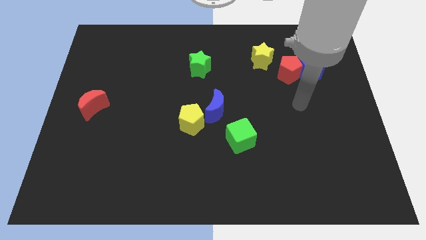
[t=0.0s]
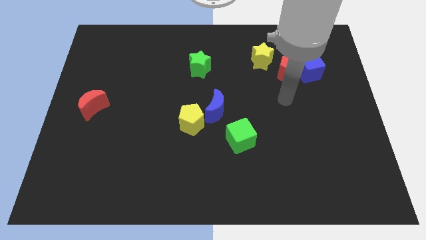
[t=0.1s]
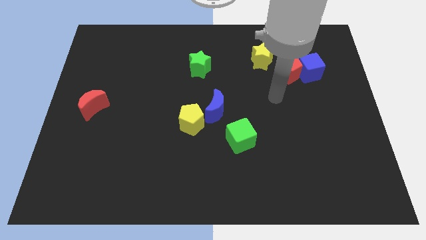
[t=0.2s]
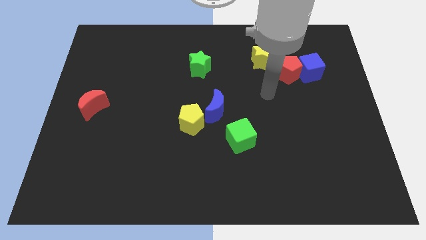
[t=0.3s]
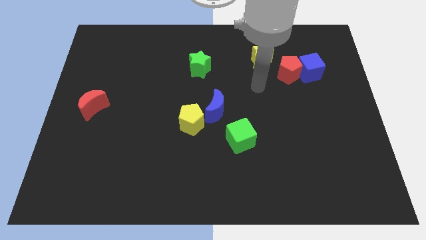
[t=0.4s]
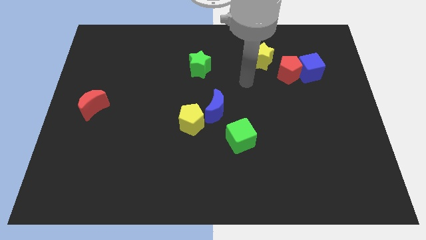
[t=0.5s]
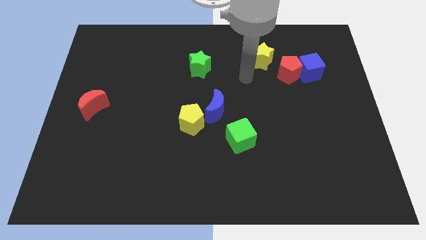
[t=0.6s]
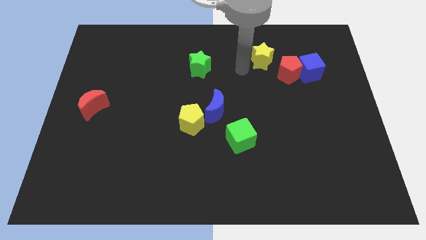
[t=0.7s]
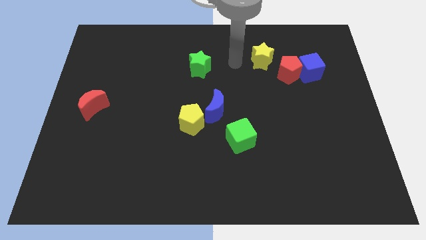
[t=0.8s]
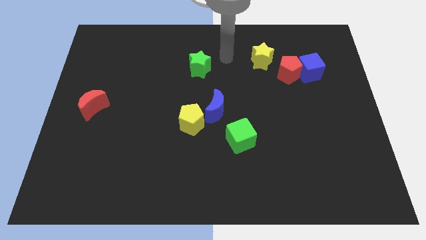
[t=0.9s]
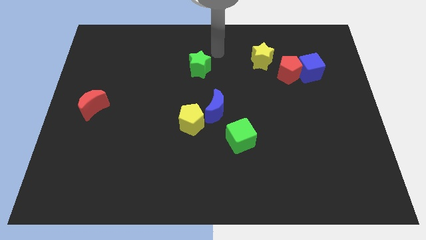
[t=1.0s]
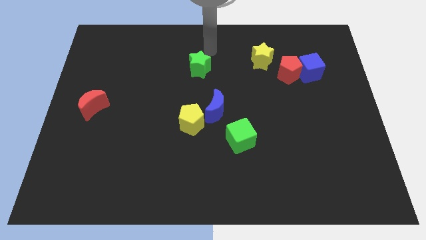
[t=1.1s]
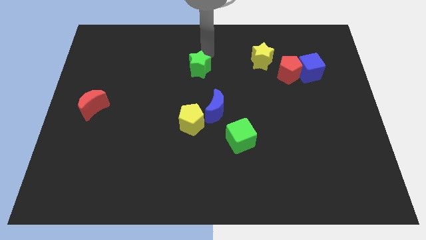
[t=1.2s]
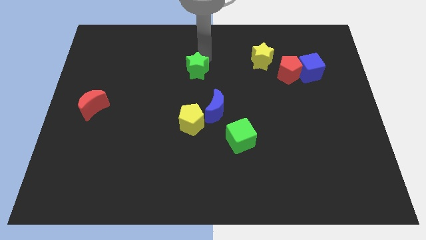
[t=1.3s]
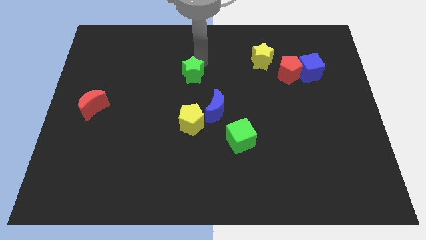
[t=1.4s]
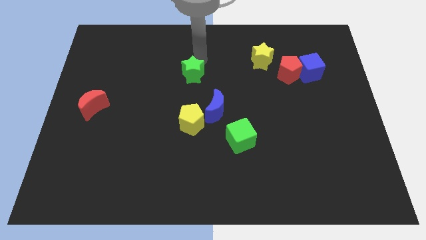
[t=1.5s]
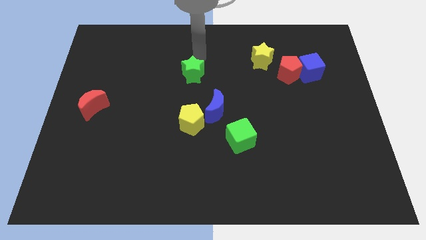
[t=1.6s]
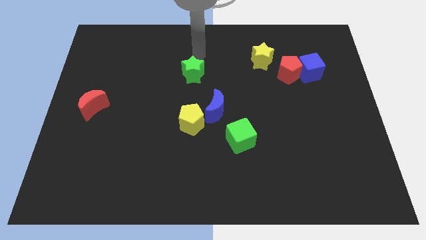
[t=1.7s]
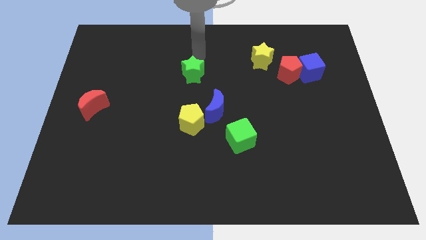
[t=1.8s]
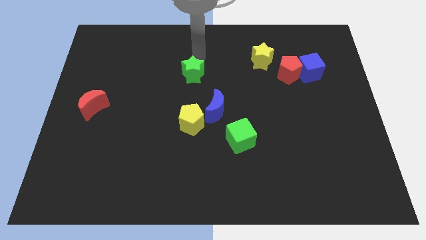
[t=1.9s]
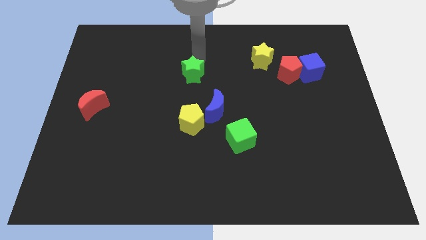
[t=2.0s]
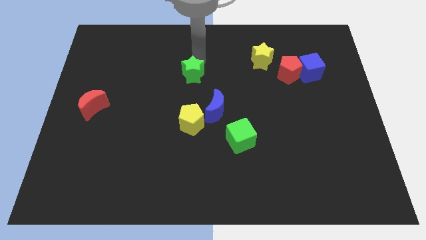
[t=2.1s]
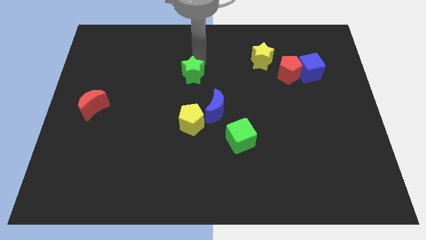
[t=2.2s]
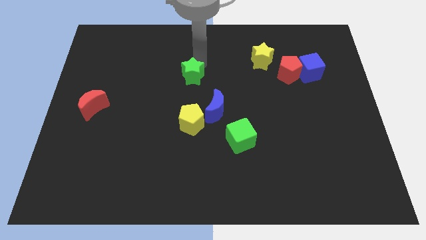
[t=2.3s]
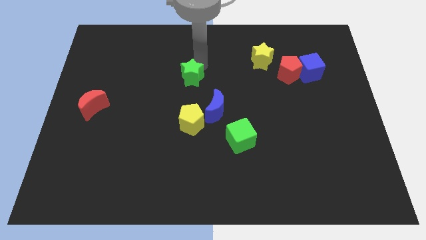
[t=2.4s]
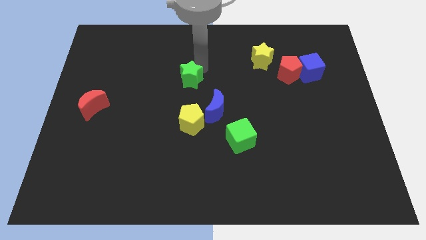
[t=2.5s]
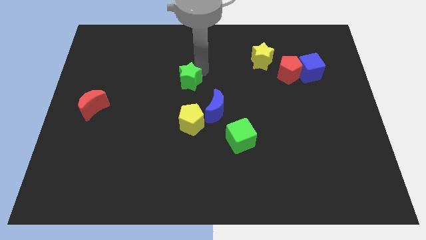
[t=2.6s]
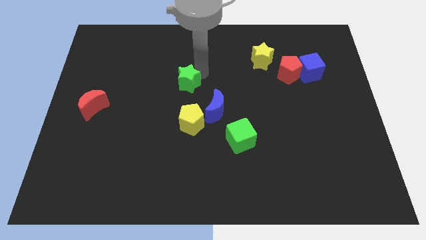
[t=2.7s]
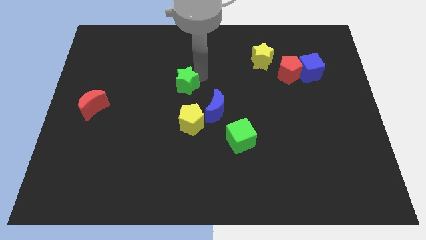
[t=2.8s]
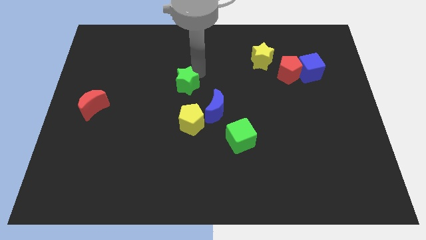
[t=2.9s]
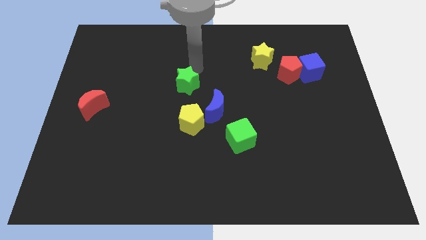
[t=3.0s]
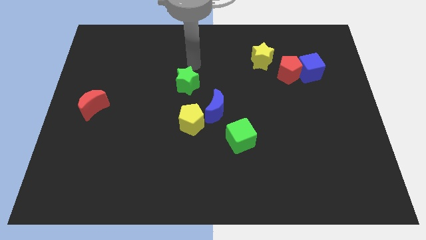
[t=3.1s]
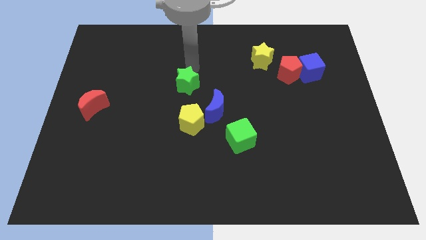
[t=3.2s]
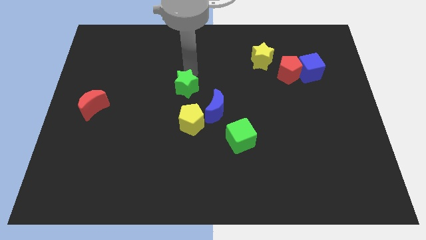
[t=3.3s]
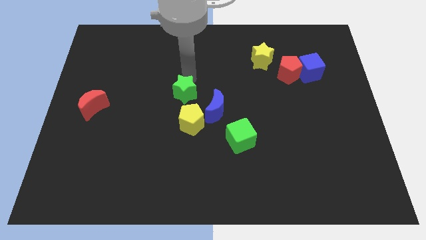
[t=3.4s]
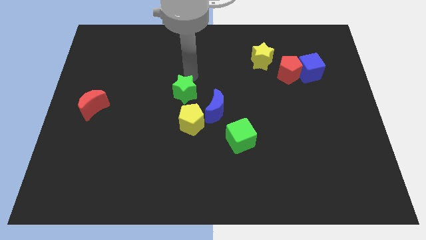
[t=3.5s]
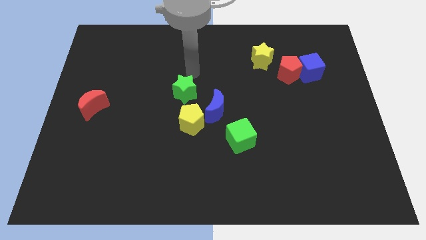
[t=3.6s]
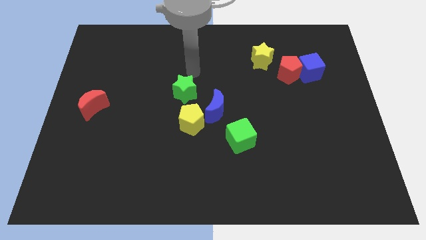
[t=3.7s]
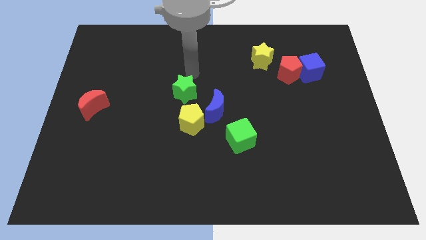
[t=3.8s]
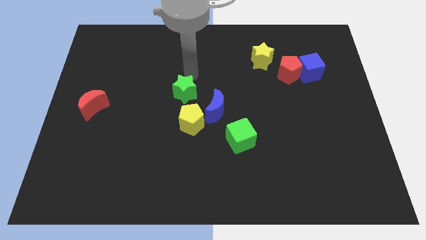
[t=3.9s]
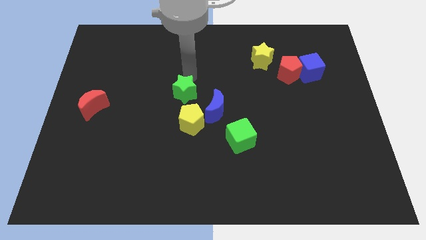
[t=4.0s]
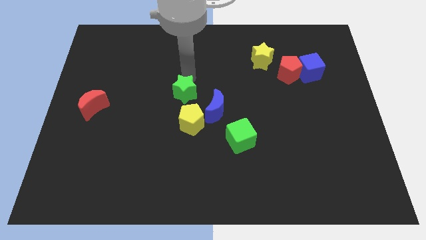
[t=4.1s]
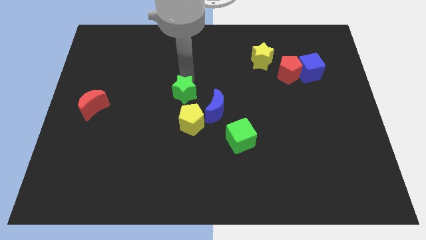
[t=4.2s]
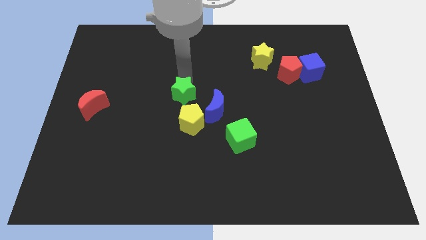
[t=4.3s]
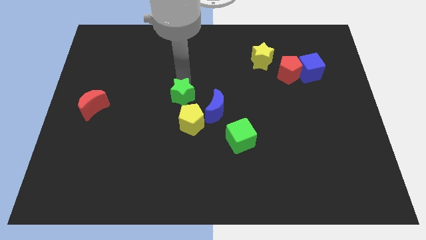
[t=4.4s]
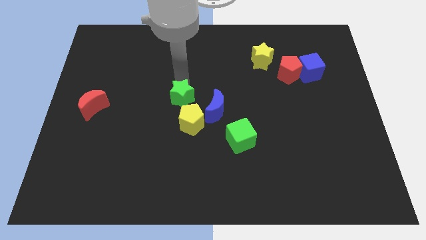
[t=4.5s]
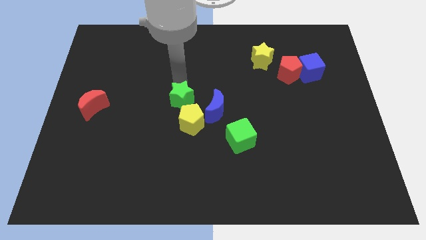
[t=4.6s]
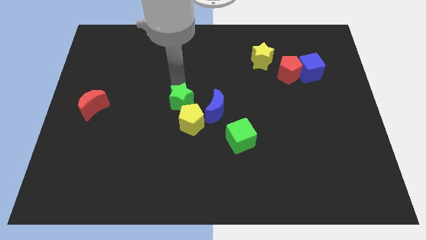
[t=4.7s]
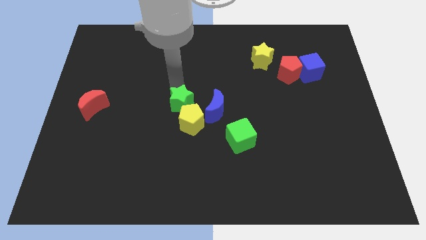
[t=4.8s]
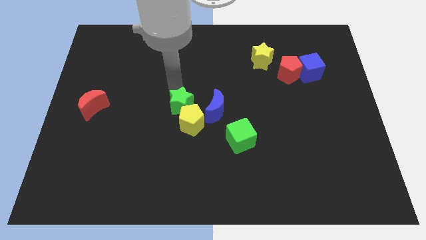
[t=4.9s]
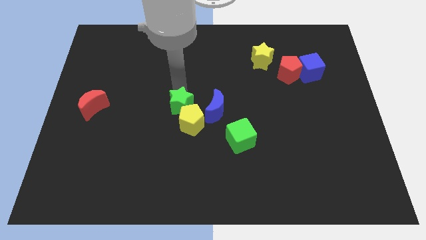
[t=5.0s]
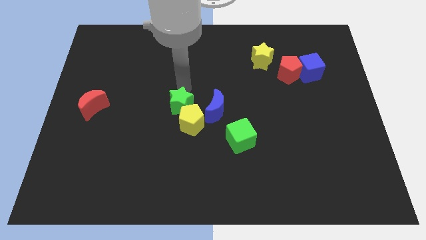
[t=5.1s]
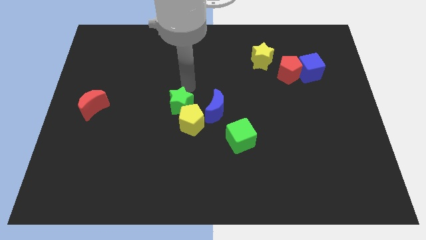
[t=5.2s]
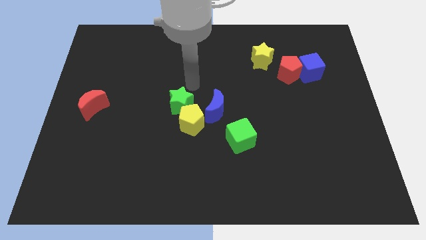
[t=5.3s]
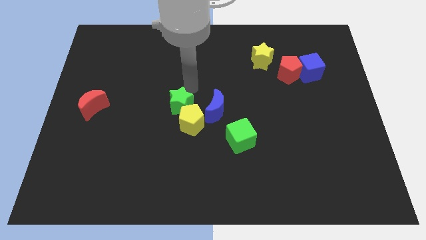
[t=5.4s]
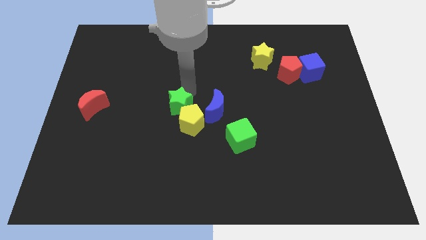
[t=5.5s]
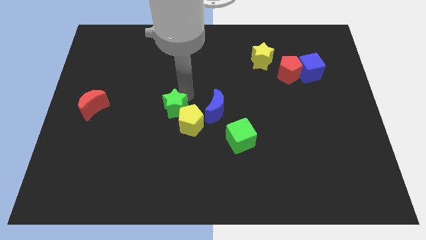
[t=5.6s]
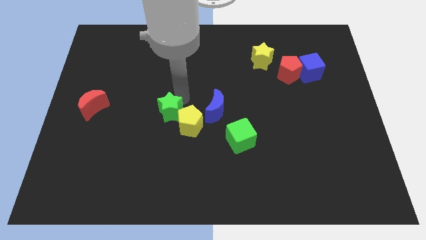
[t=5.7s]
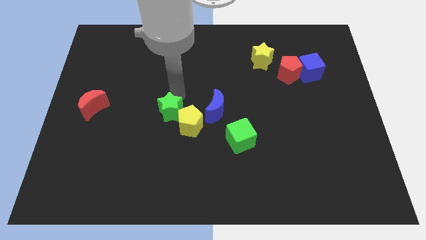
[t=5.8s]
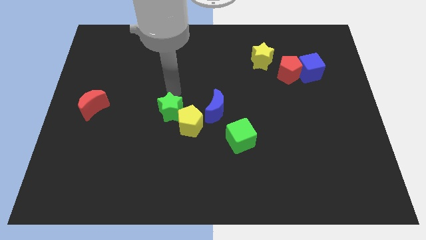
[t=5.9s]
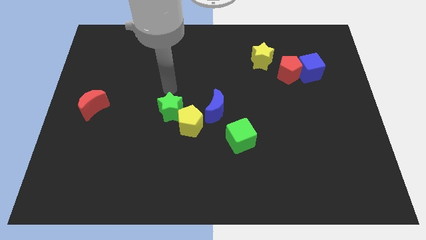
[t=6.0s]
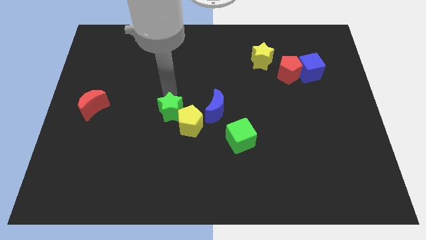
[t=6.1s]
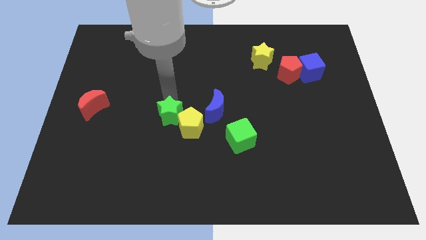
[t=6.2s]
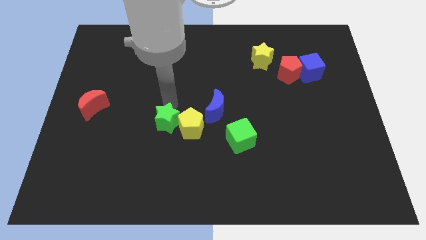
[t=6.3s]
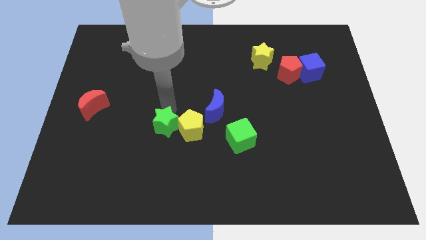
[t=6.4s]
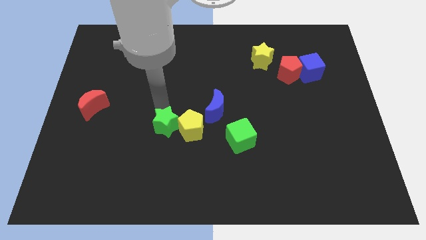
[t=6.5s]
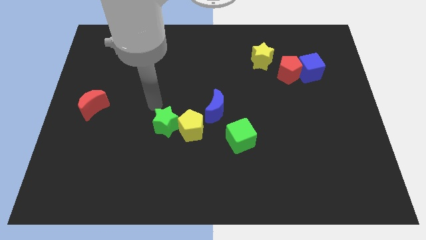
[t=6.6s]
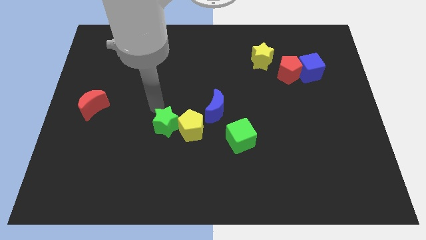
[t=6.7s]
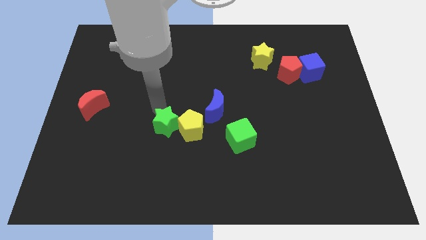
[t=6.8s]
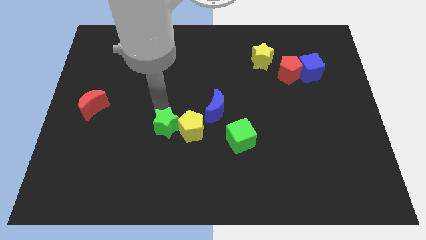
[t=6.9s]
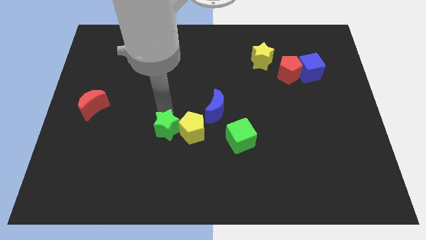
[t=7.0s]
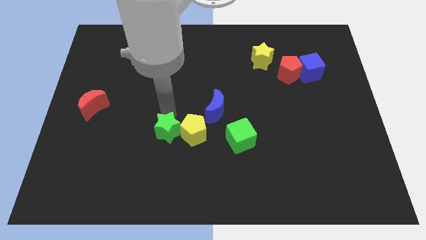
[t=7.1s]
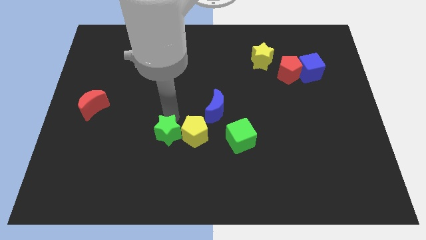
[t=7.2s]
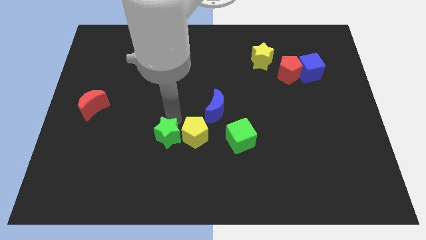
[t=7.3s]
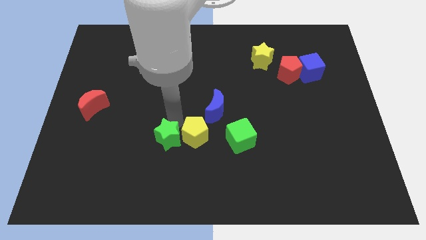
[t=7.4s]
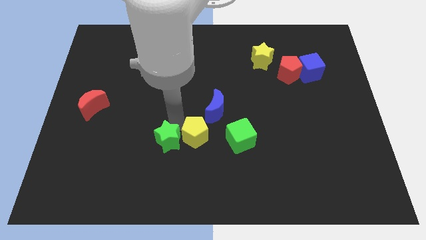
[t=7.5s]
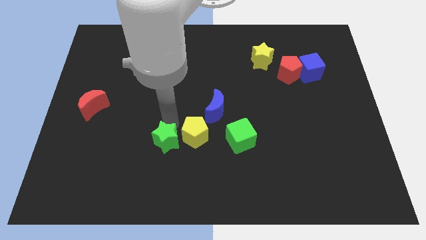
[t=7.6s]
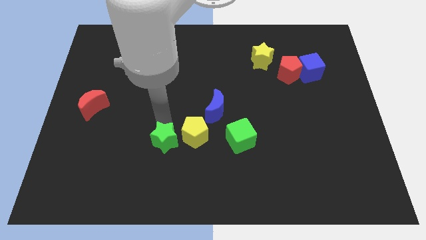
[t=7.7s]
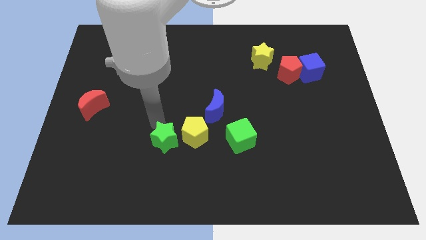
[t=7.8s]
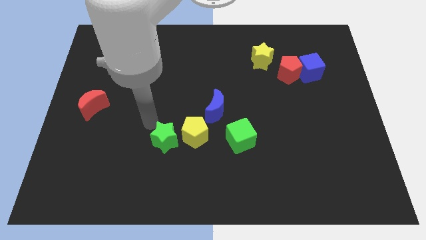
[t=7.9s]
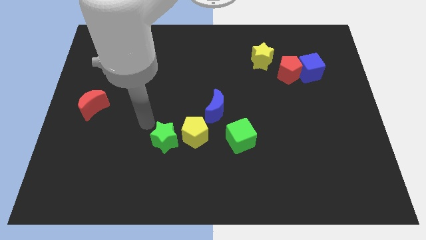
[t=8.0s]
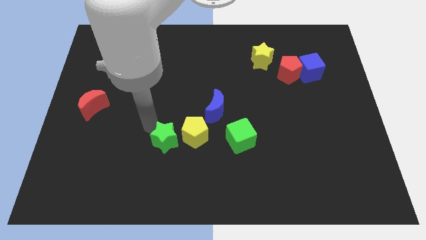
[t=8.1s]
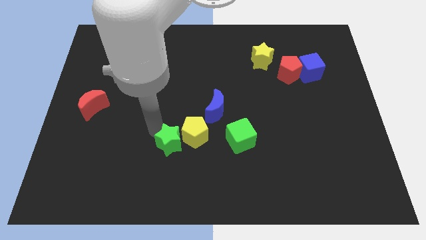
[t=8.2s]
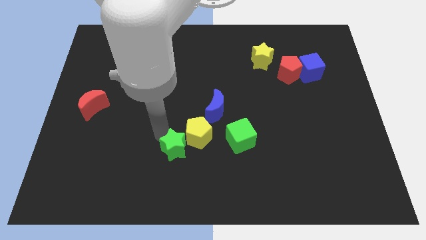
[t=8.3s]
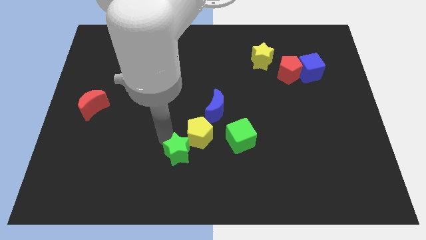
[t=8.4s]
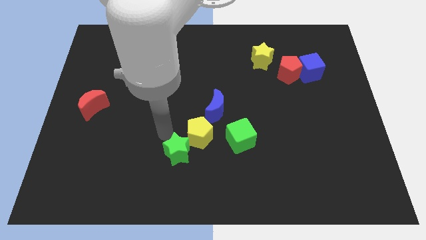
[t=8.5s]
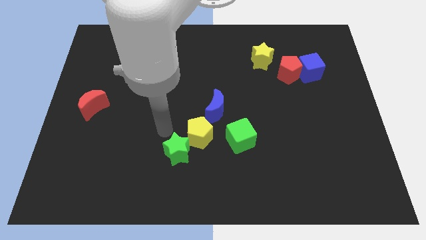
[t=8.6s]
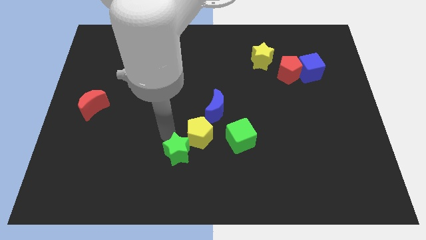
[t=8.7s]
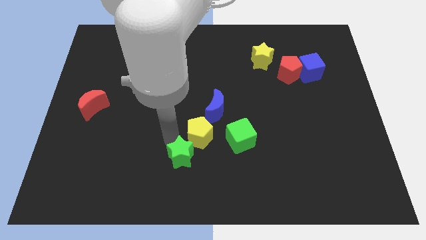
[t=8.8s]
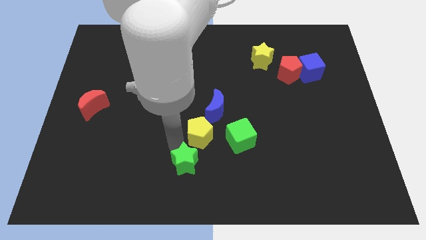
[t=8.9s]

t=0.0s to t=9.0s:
put the green star to the bottom
